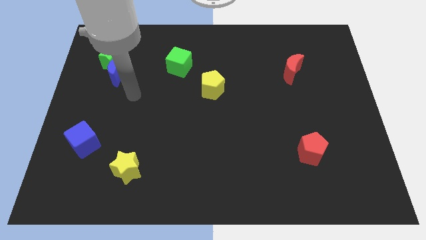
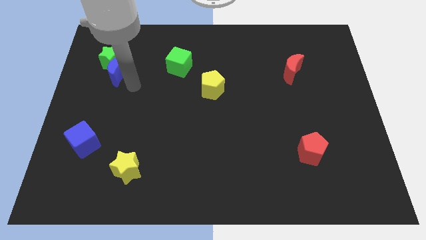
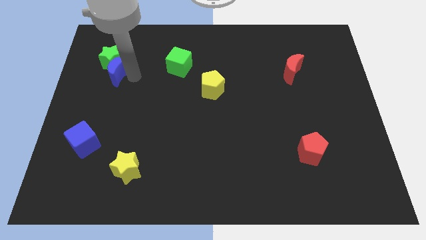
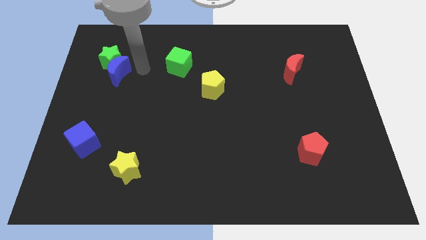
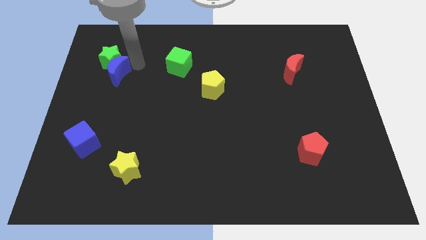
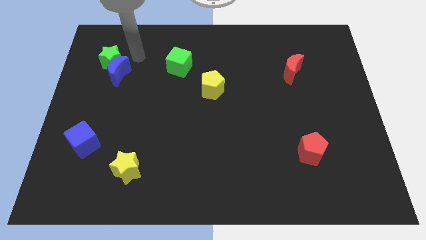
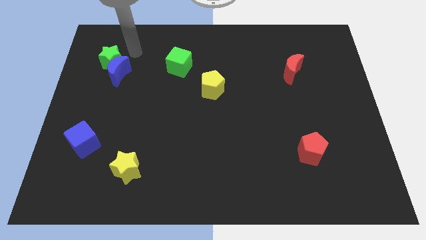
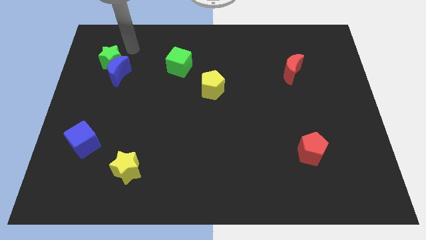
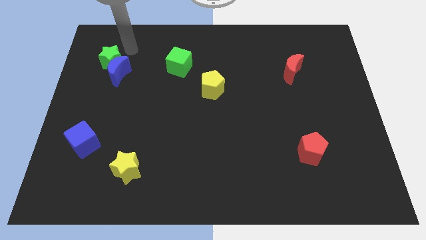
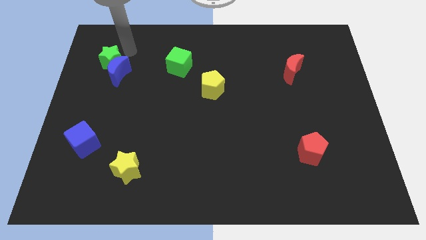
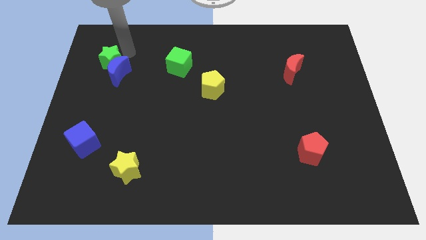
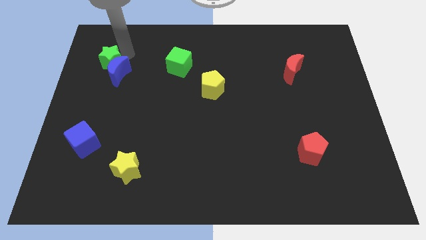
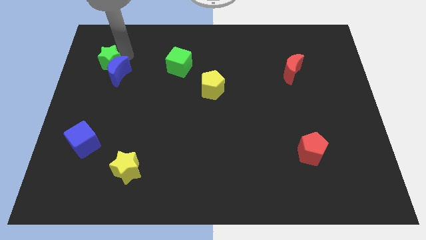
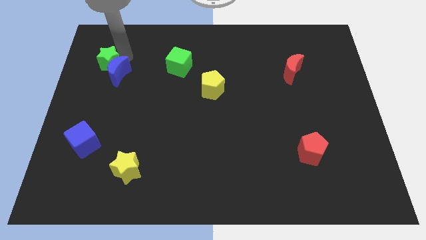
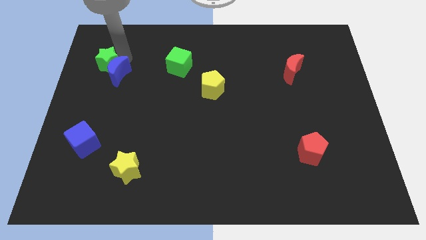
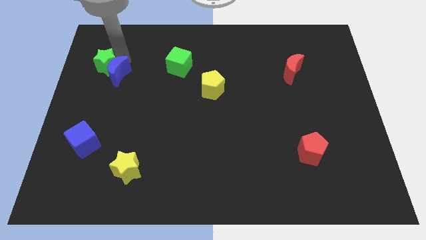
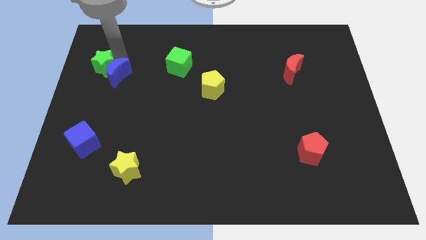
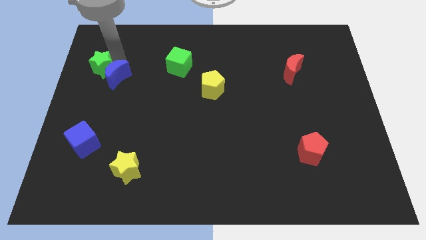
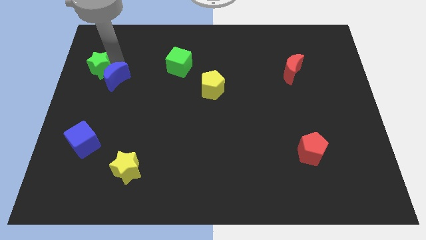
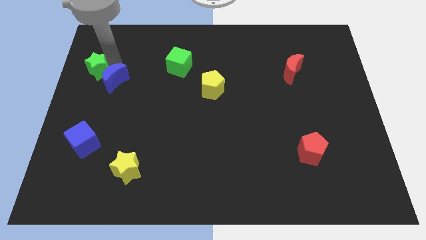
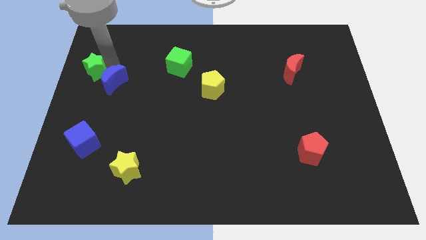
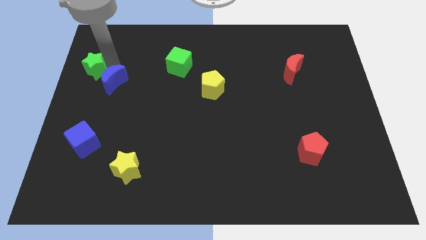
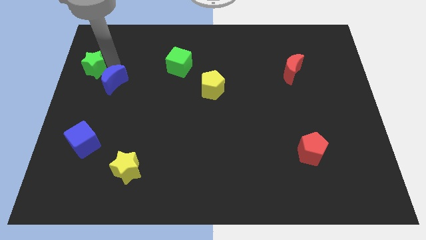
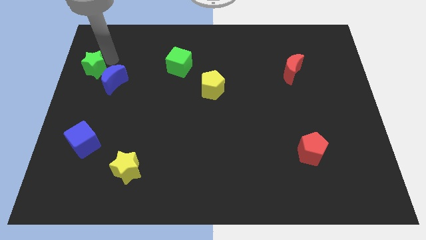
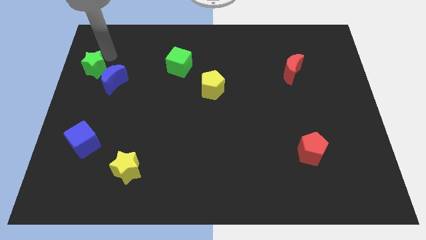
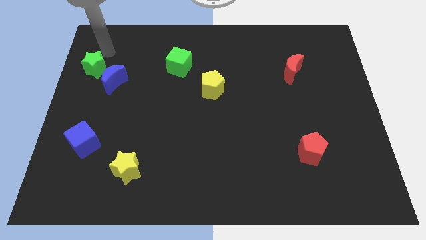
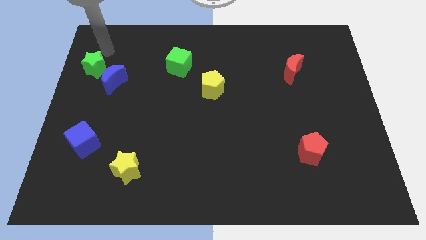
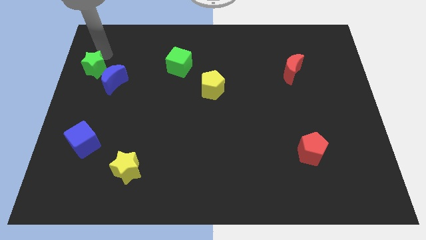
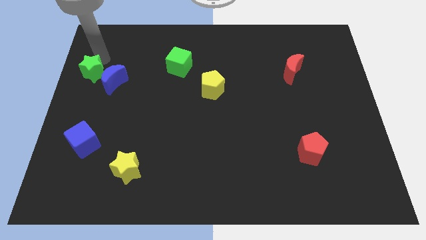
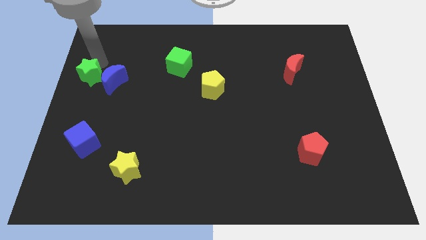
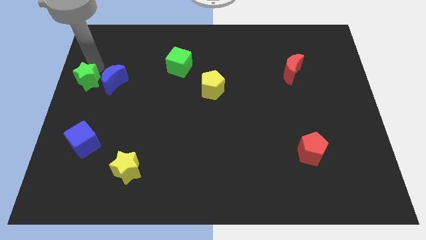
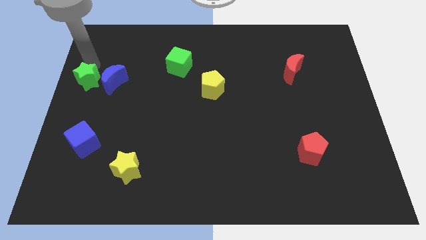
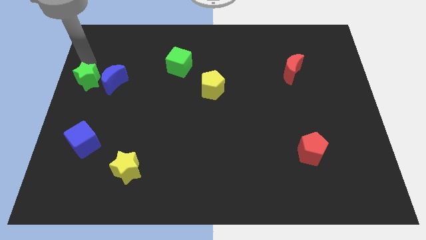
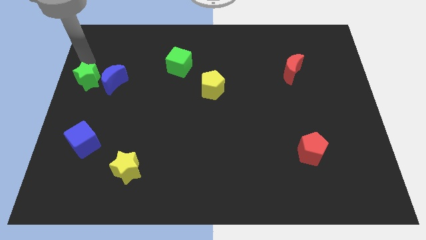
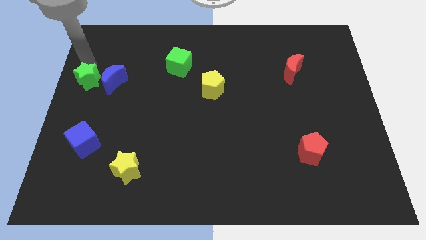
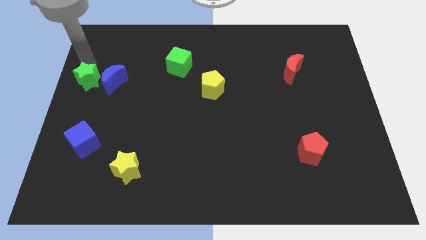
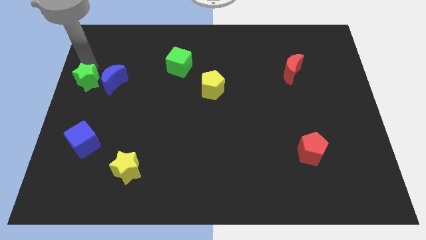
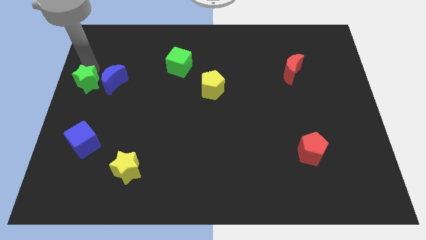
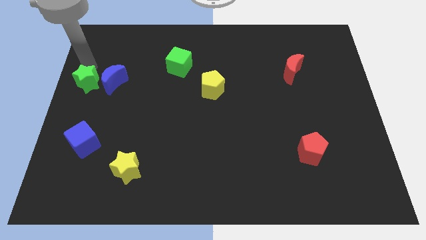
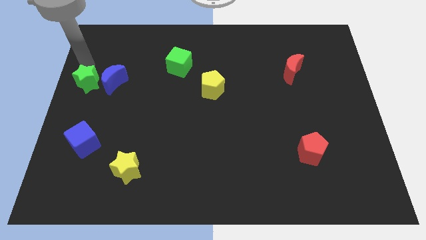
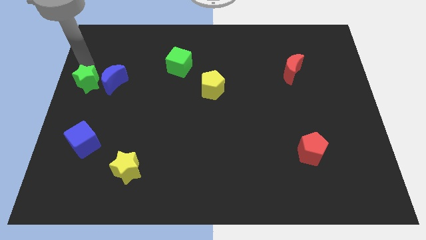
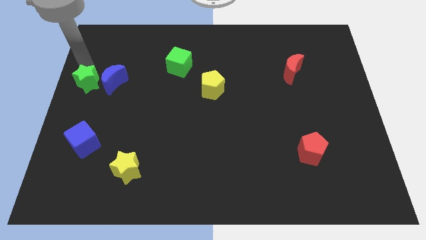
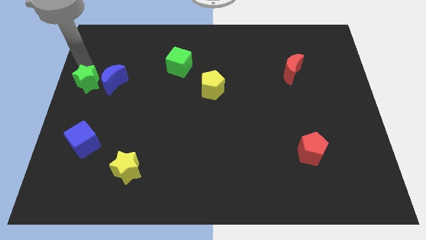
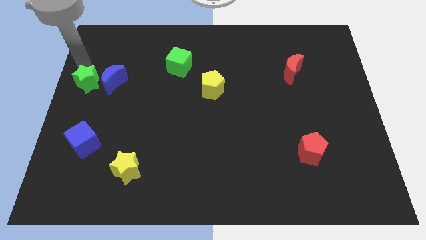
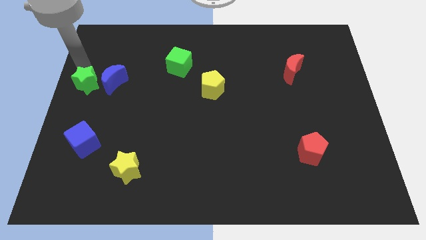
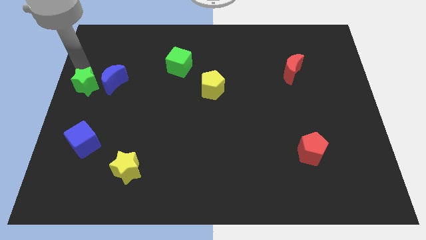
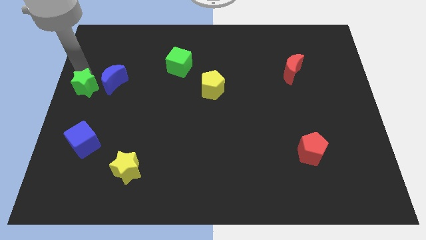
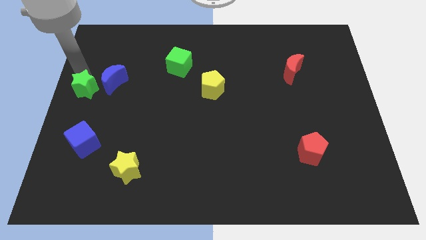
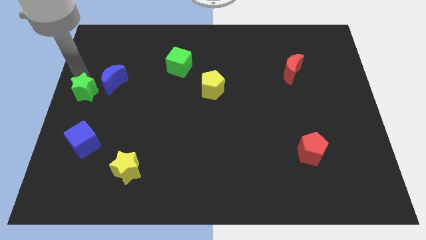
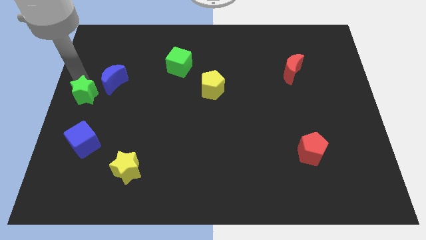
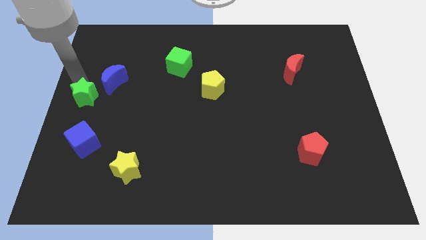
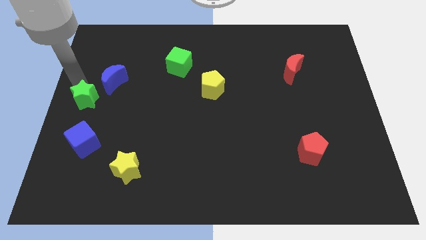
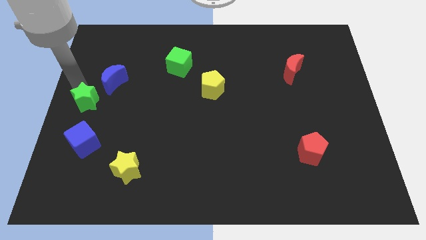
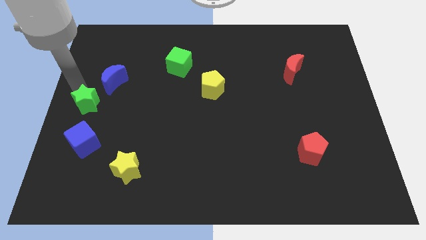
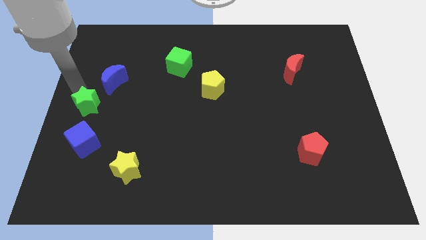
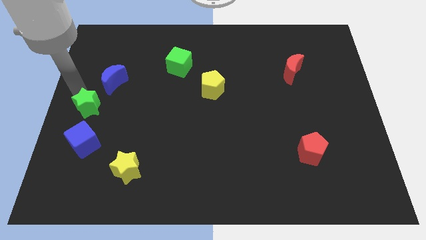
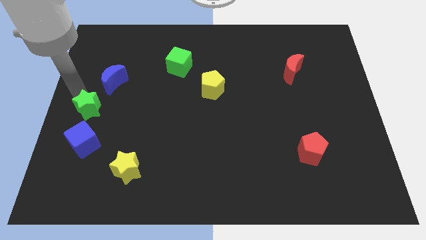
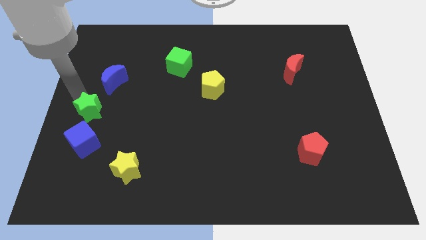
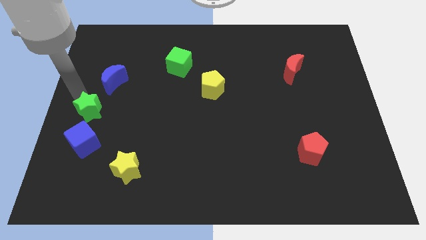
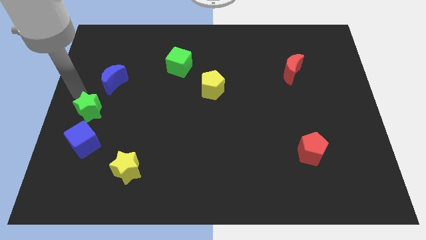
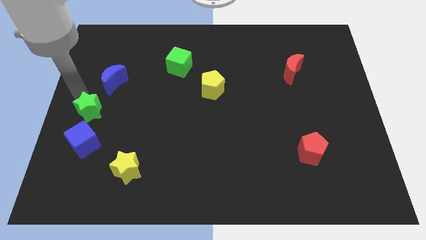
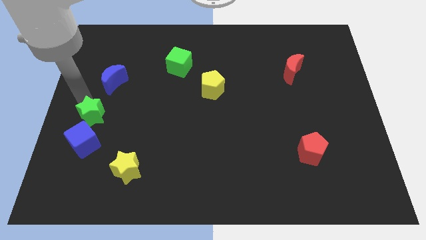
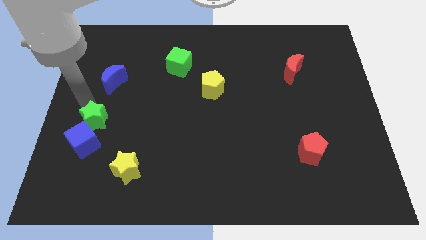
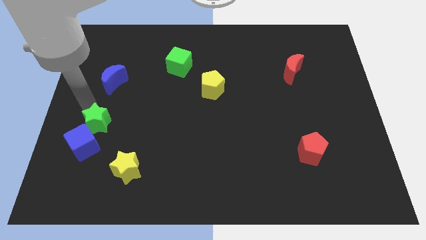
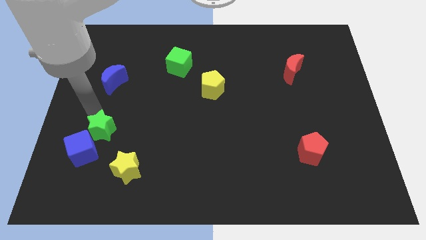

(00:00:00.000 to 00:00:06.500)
move the green star down

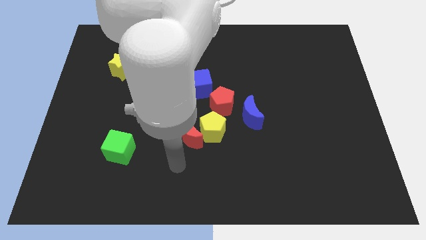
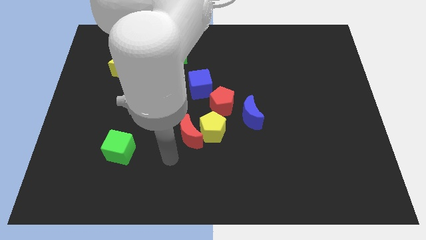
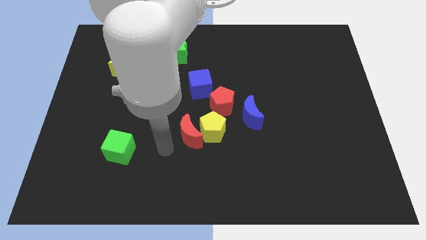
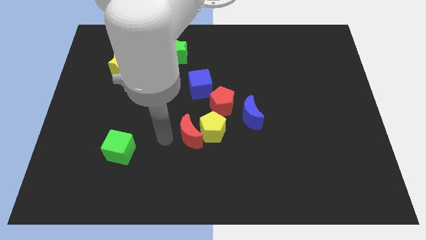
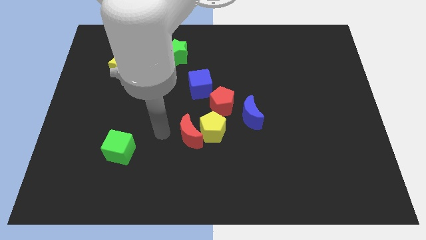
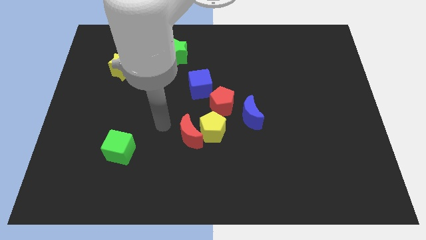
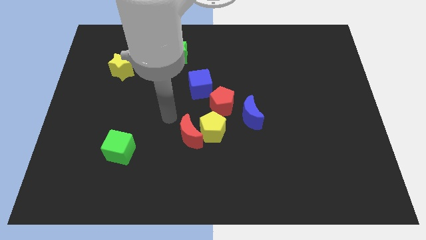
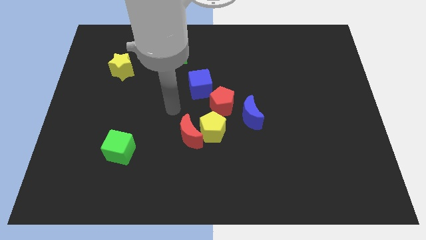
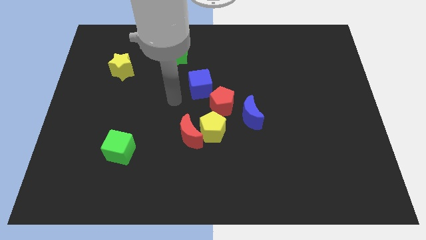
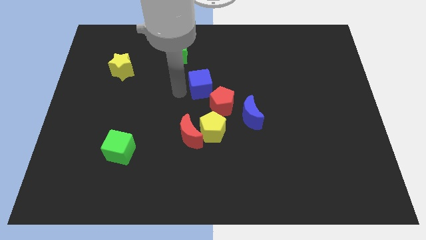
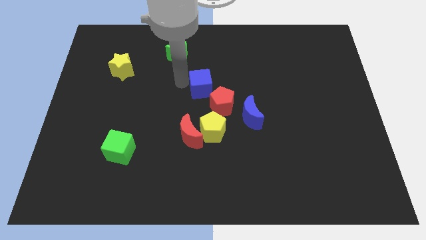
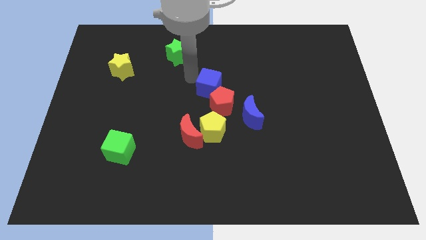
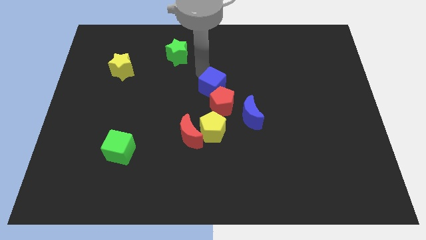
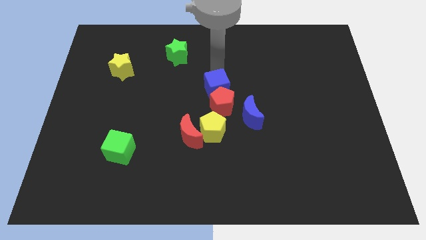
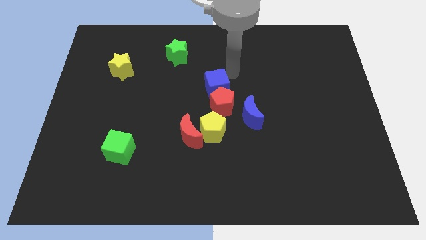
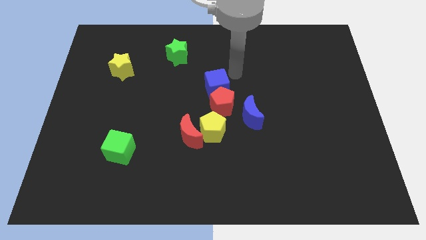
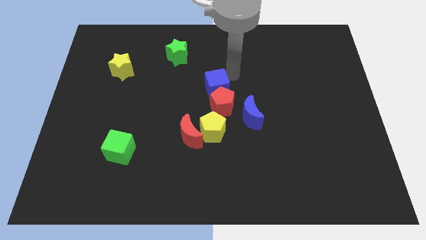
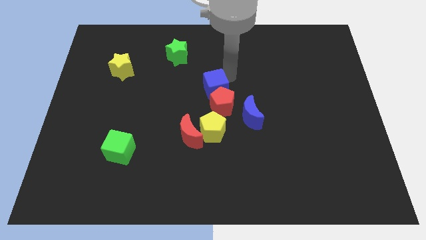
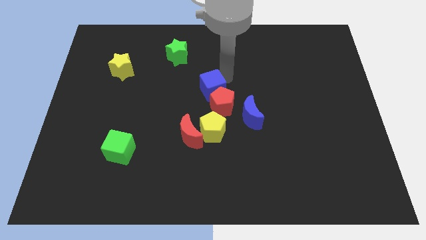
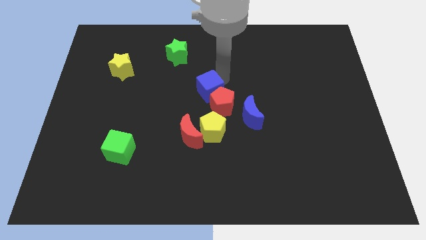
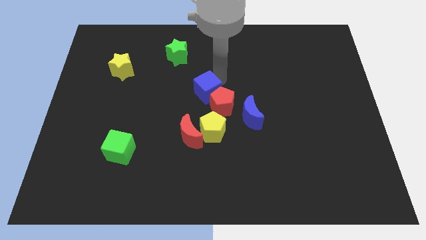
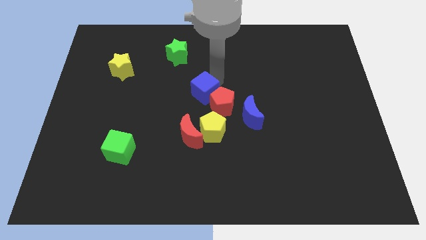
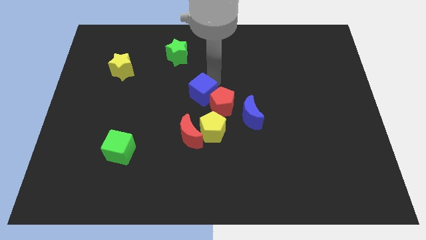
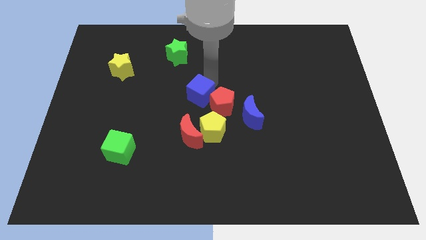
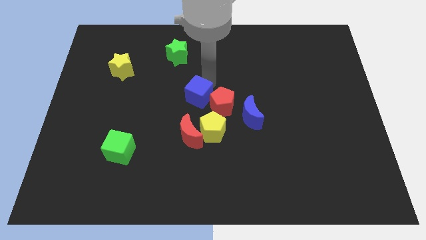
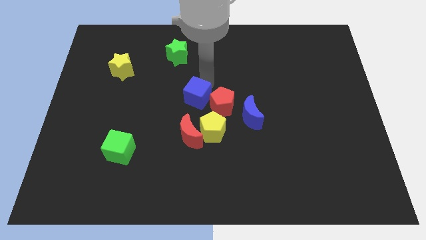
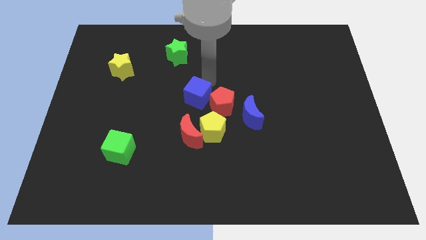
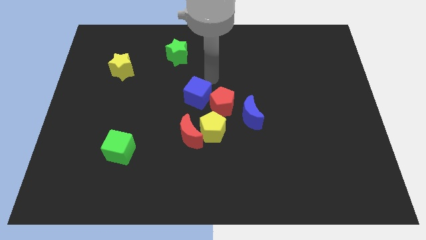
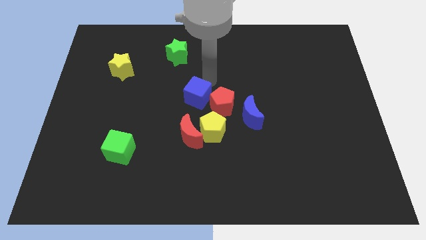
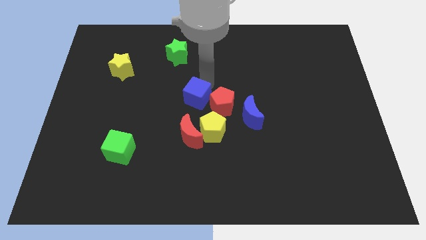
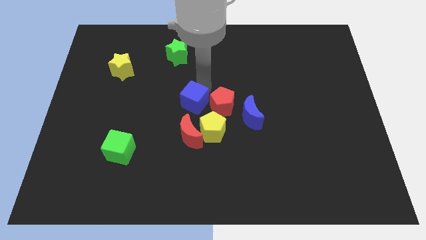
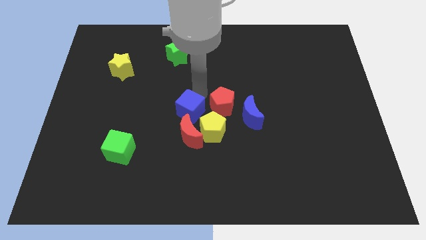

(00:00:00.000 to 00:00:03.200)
slide the blue cube down somewhat
